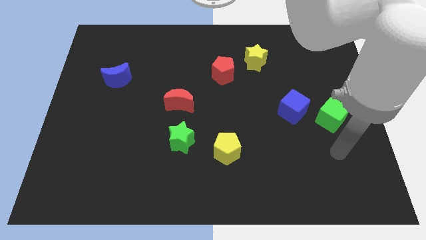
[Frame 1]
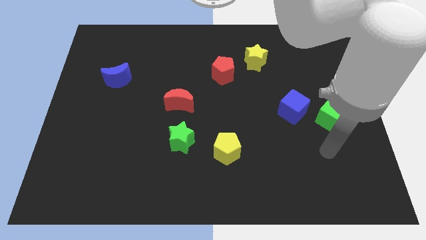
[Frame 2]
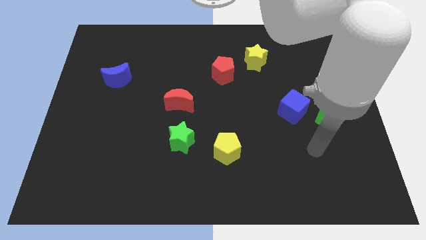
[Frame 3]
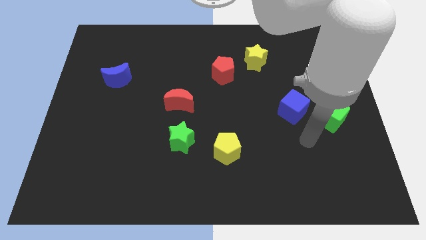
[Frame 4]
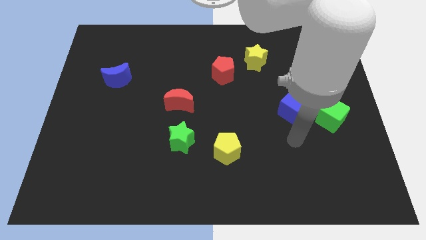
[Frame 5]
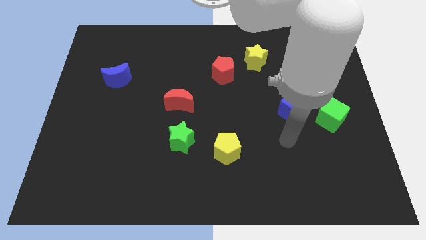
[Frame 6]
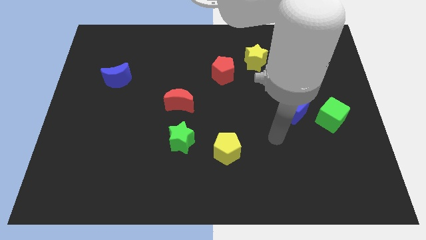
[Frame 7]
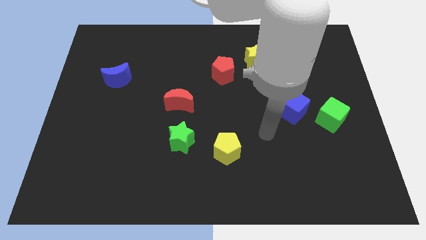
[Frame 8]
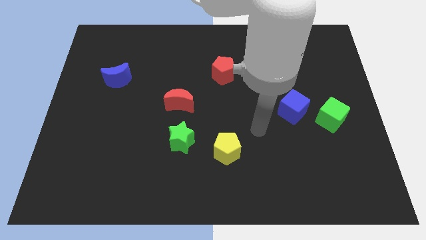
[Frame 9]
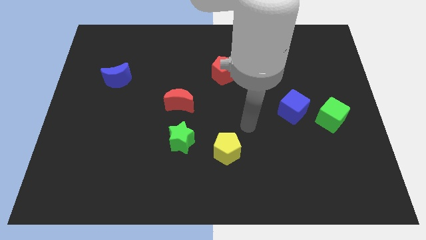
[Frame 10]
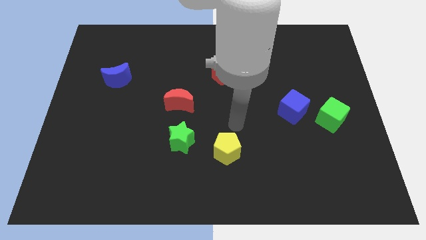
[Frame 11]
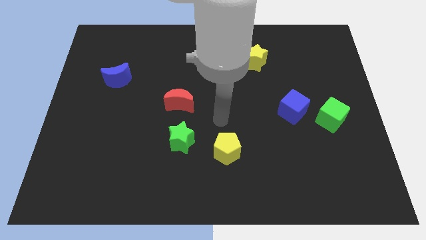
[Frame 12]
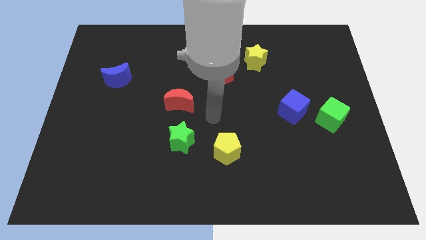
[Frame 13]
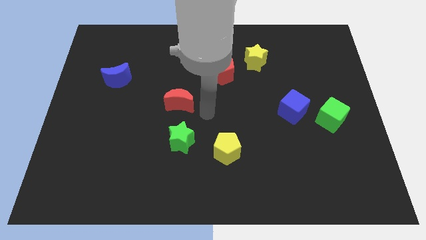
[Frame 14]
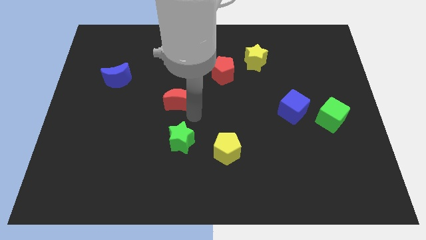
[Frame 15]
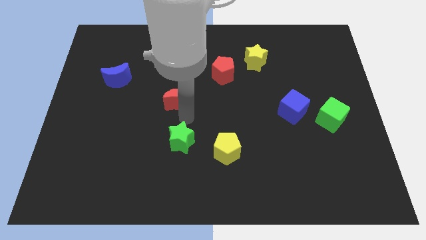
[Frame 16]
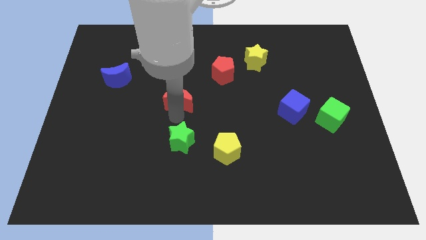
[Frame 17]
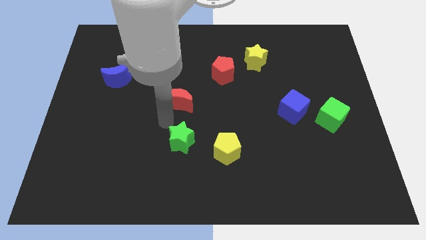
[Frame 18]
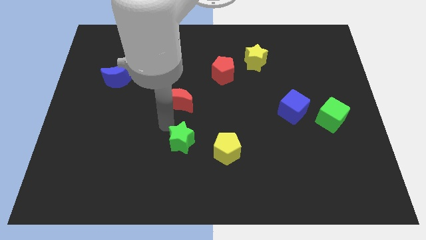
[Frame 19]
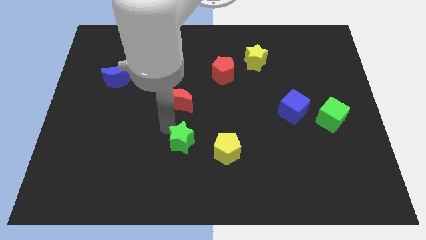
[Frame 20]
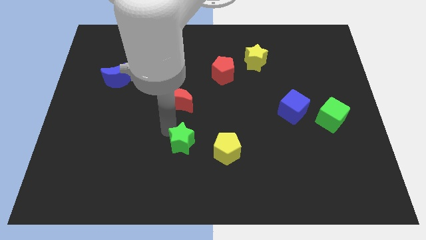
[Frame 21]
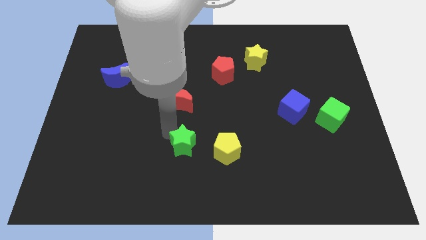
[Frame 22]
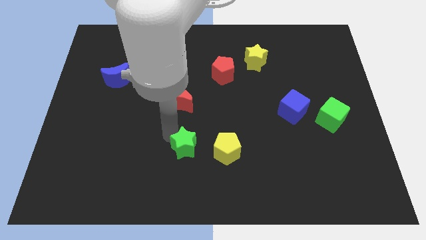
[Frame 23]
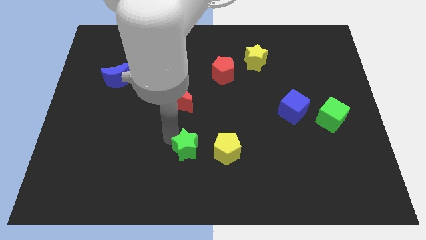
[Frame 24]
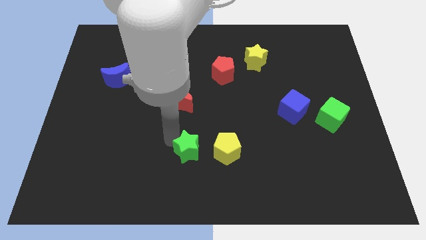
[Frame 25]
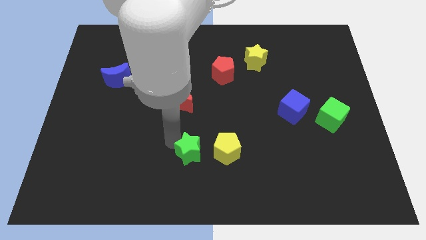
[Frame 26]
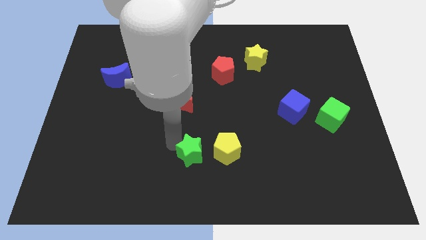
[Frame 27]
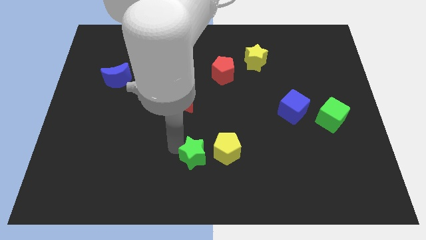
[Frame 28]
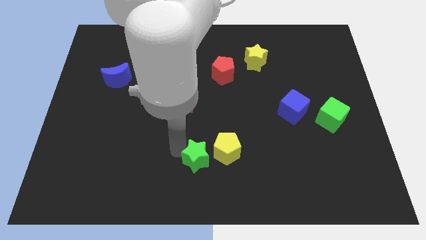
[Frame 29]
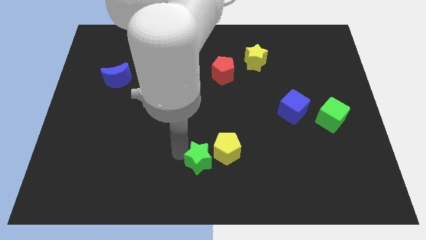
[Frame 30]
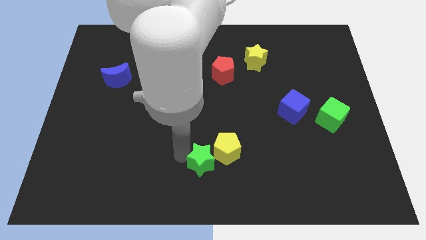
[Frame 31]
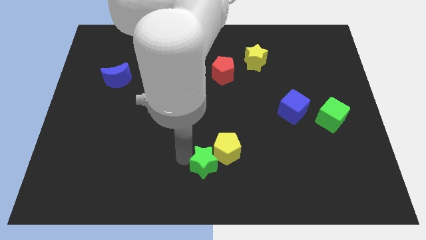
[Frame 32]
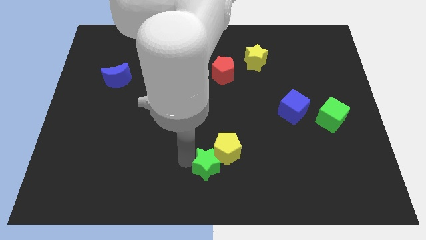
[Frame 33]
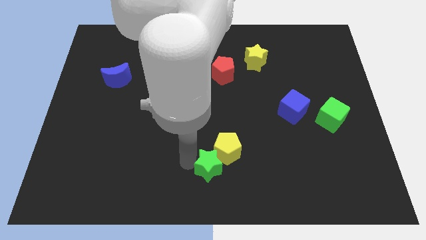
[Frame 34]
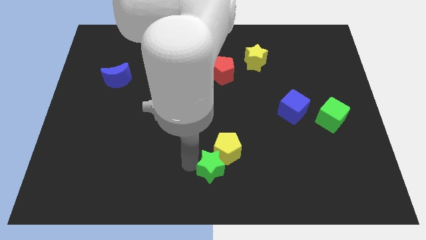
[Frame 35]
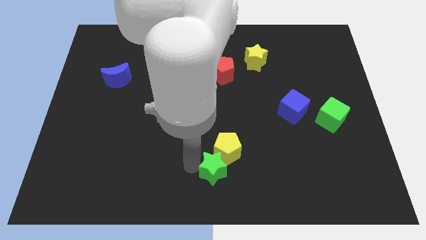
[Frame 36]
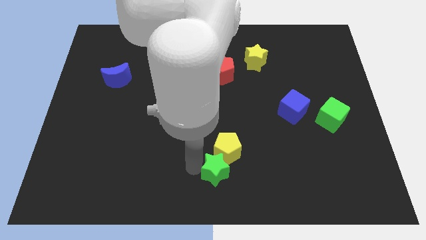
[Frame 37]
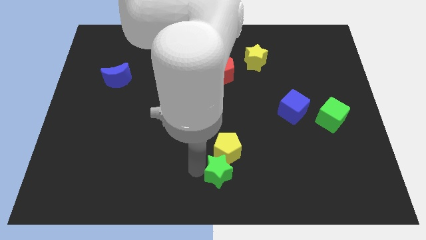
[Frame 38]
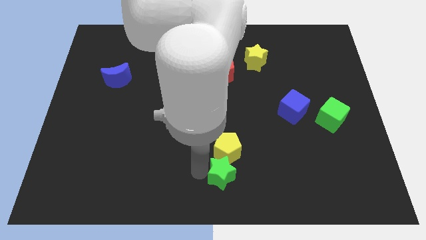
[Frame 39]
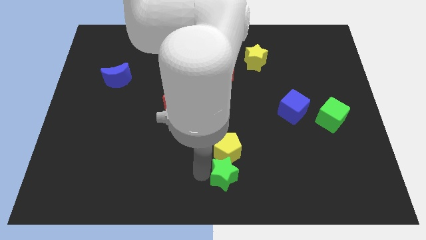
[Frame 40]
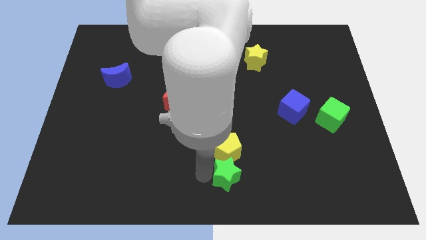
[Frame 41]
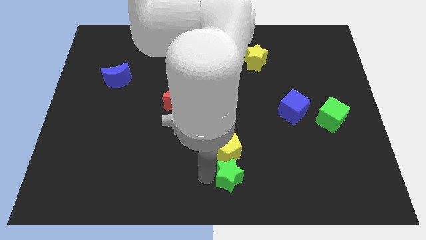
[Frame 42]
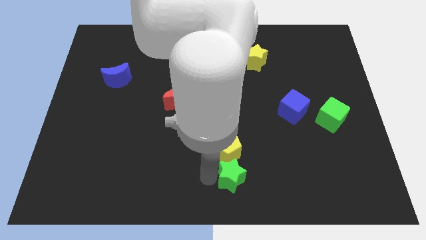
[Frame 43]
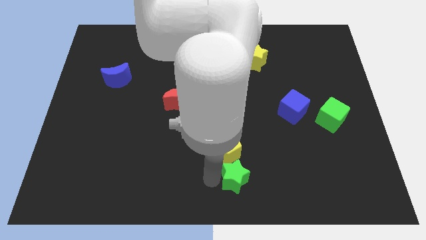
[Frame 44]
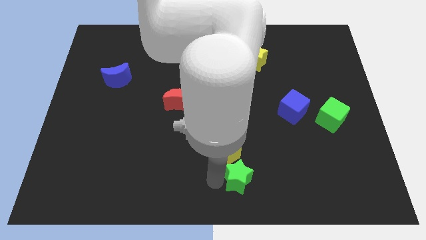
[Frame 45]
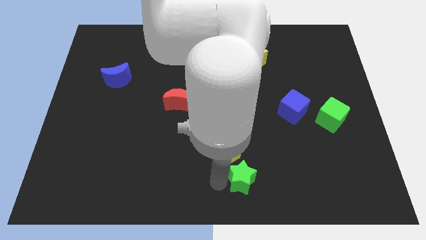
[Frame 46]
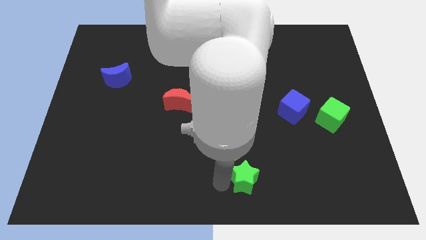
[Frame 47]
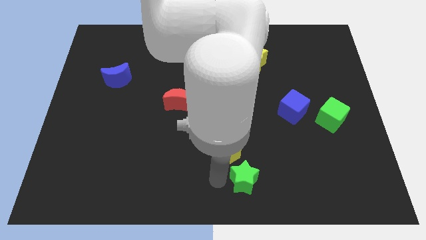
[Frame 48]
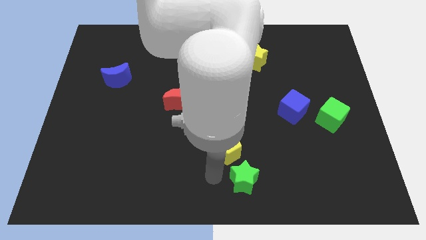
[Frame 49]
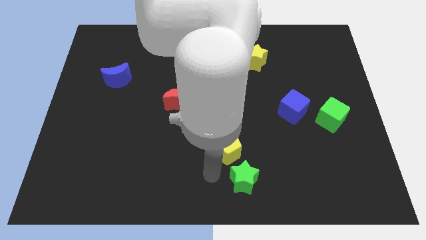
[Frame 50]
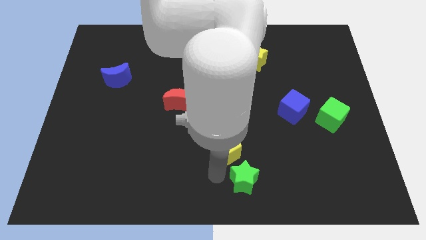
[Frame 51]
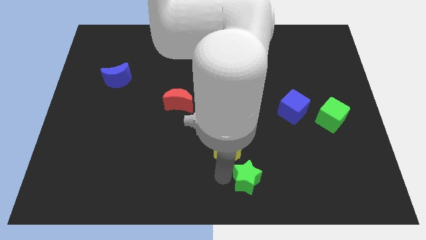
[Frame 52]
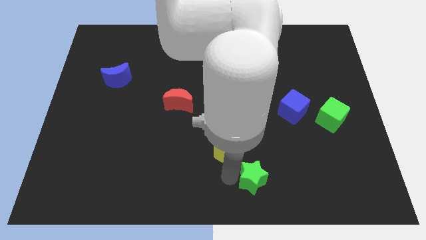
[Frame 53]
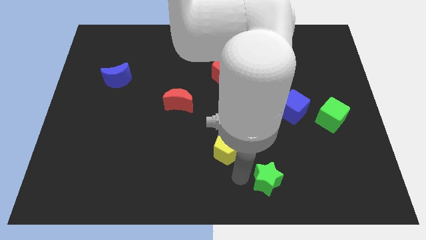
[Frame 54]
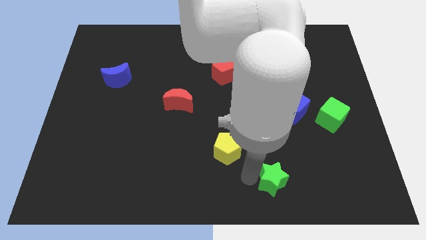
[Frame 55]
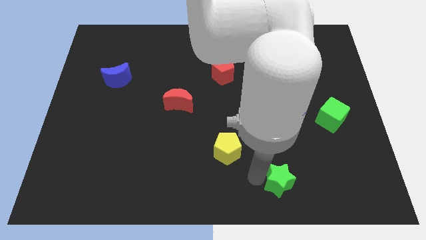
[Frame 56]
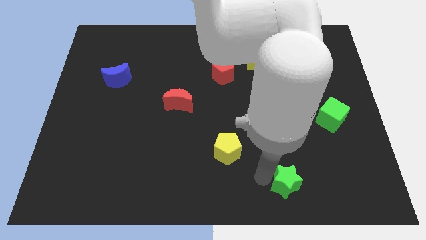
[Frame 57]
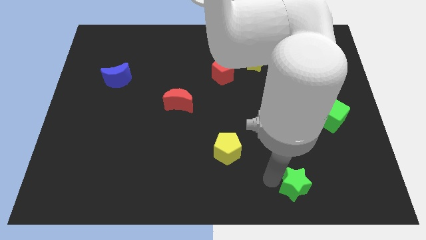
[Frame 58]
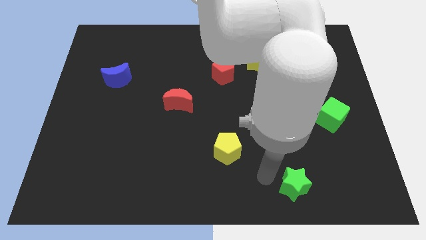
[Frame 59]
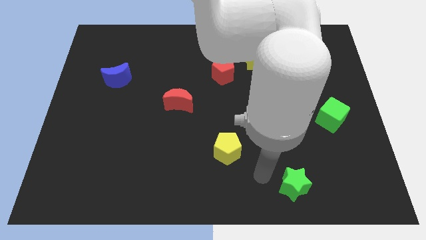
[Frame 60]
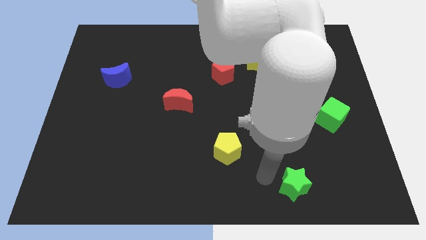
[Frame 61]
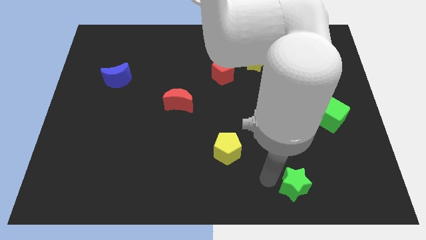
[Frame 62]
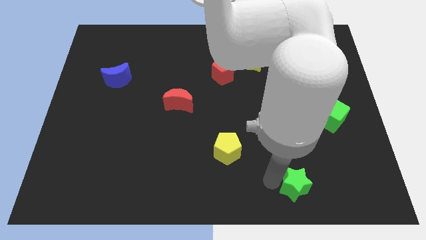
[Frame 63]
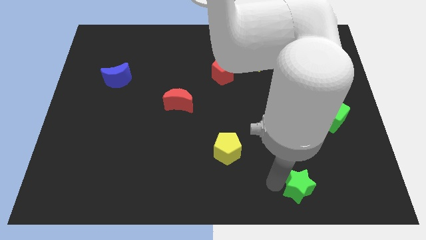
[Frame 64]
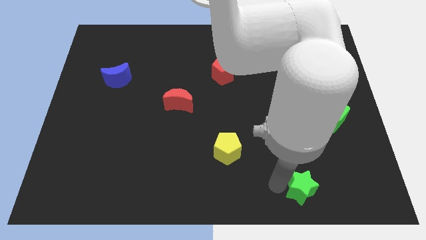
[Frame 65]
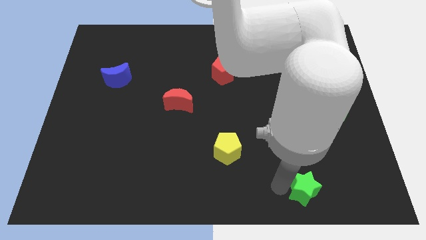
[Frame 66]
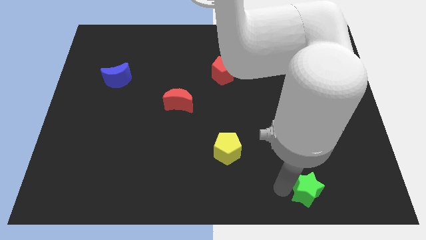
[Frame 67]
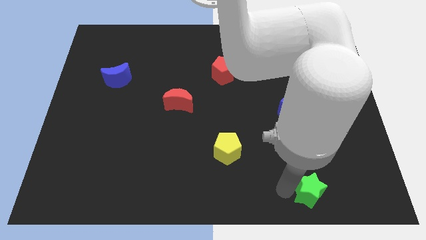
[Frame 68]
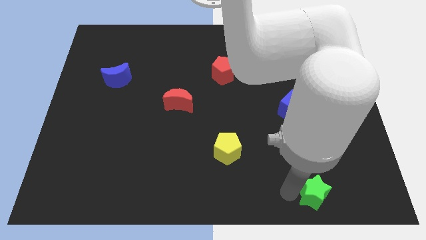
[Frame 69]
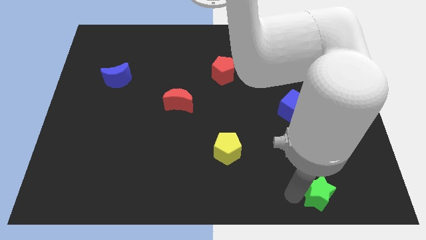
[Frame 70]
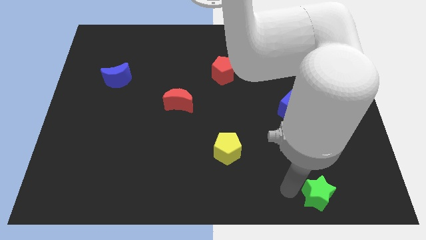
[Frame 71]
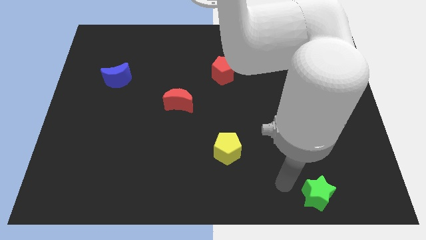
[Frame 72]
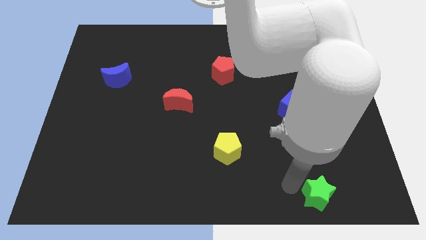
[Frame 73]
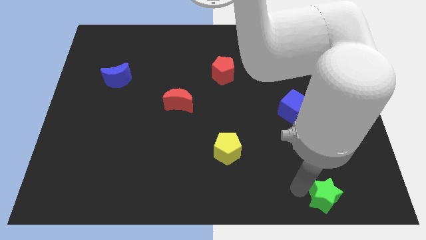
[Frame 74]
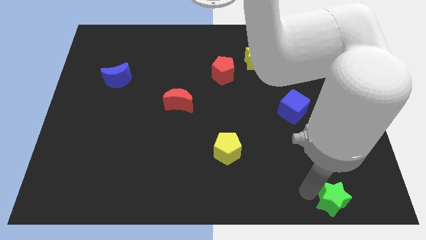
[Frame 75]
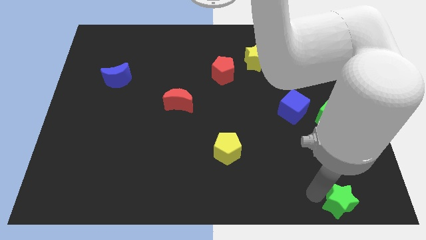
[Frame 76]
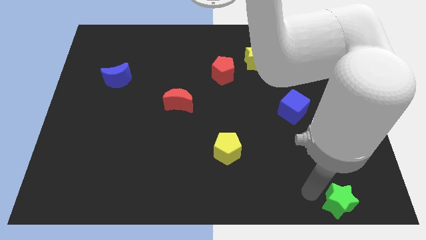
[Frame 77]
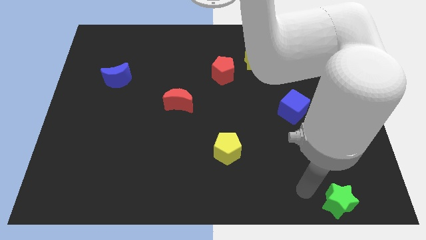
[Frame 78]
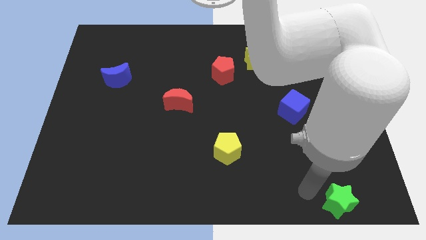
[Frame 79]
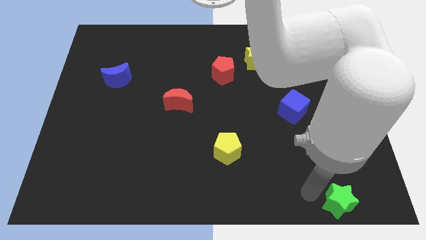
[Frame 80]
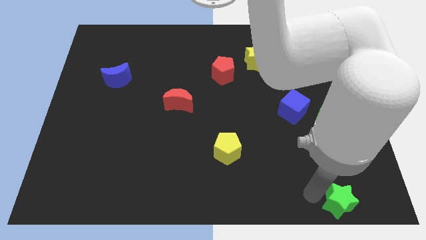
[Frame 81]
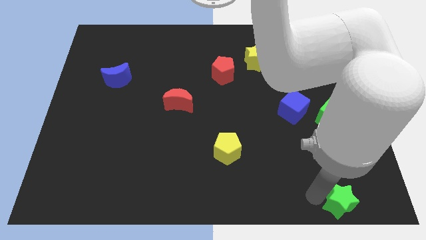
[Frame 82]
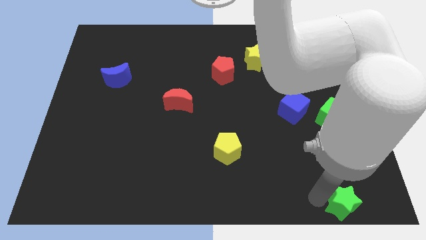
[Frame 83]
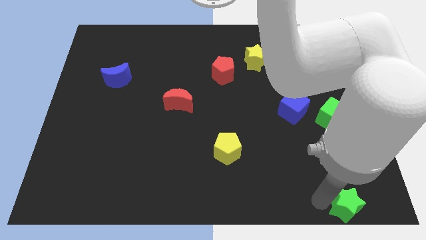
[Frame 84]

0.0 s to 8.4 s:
put the green star to the lower right corner
